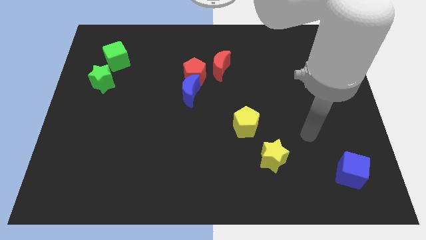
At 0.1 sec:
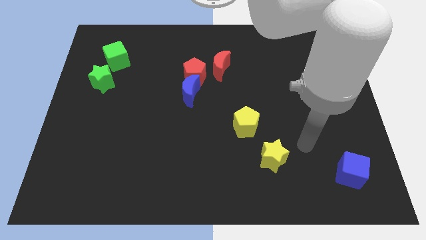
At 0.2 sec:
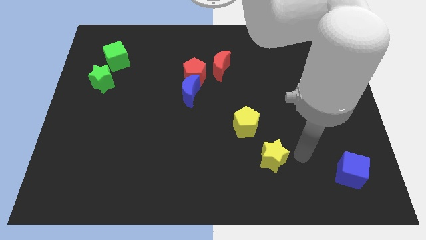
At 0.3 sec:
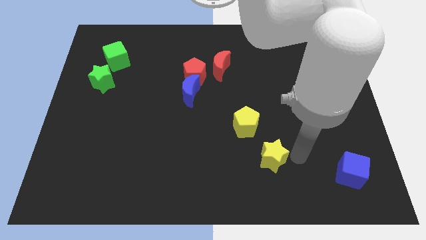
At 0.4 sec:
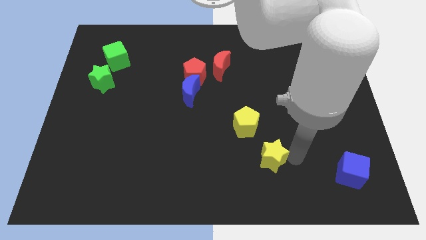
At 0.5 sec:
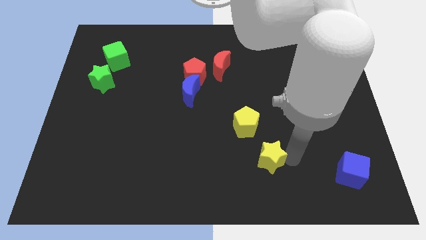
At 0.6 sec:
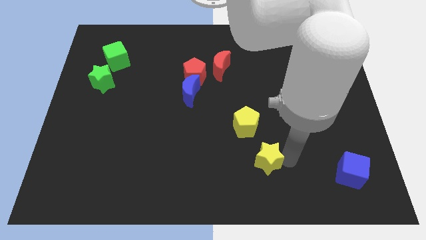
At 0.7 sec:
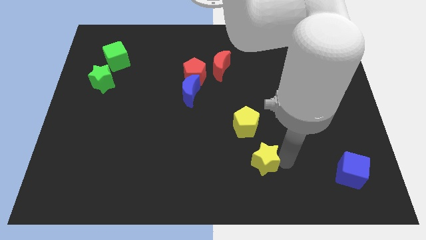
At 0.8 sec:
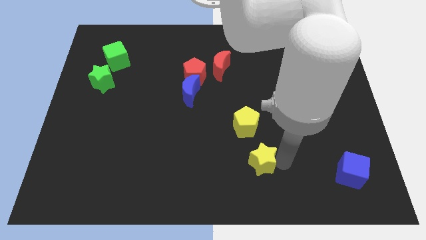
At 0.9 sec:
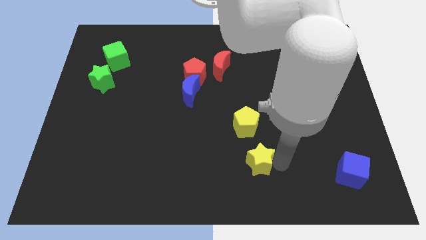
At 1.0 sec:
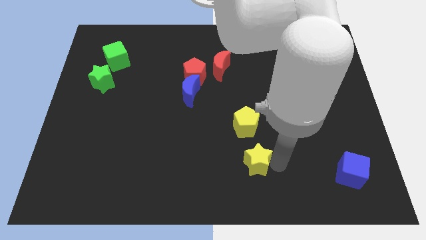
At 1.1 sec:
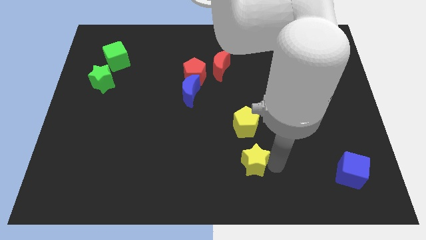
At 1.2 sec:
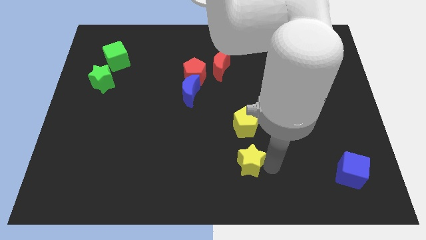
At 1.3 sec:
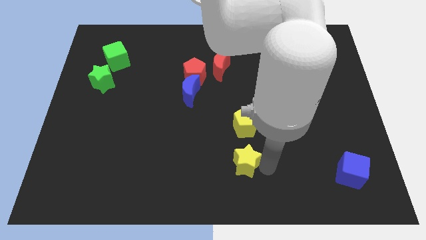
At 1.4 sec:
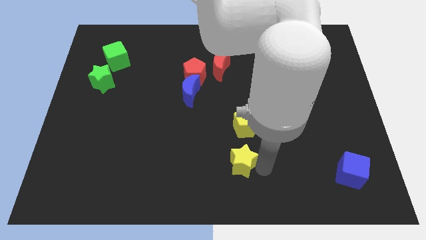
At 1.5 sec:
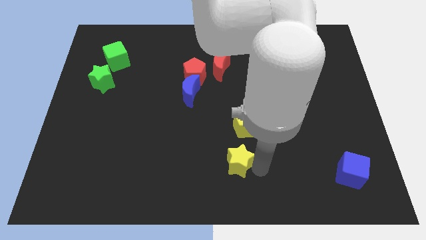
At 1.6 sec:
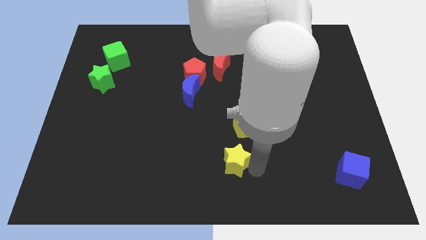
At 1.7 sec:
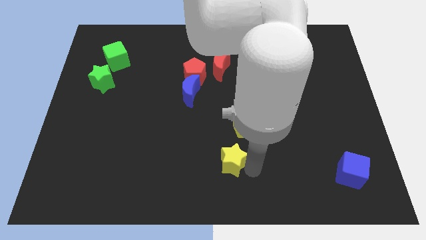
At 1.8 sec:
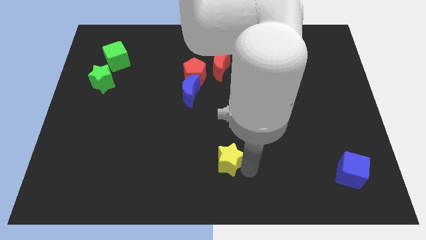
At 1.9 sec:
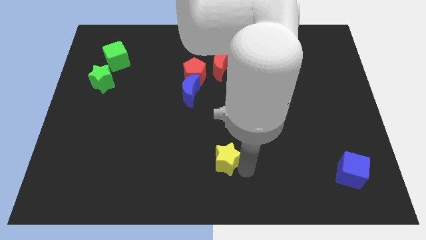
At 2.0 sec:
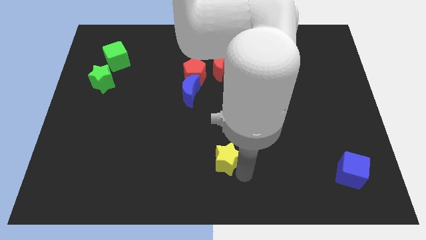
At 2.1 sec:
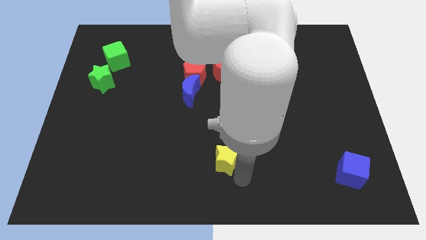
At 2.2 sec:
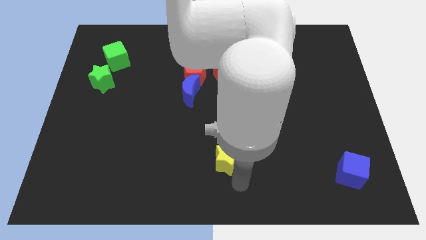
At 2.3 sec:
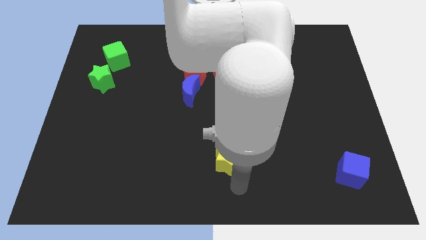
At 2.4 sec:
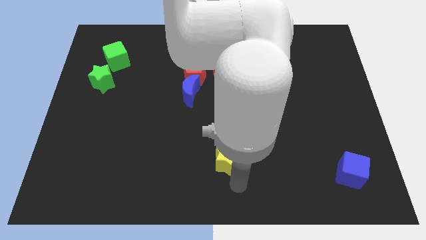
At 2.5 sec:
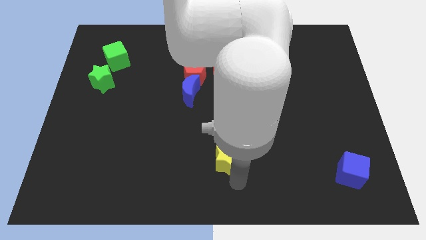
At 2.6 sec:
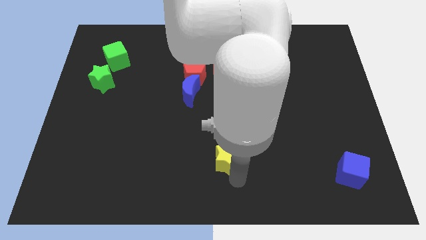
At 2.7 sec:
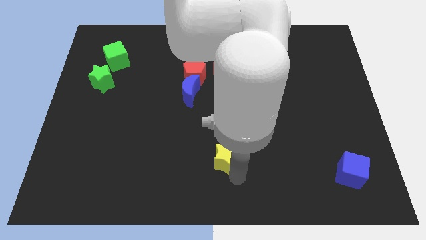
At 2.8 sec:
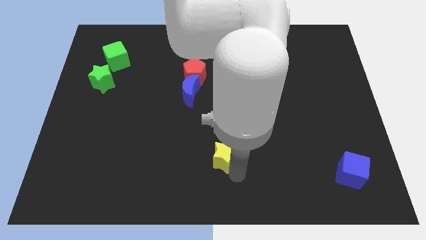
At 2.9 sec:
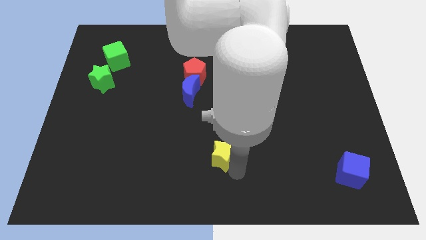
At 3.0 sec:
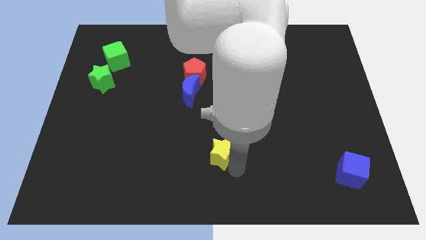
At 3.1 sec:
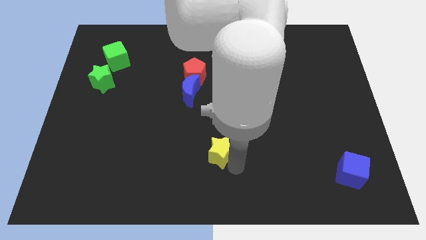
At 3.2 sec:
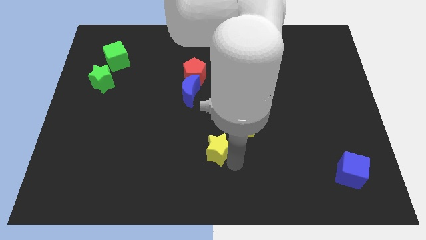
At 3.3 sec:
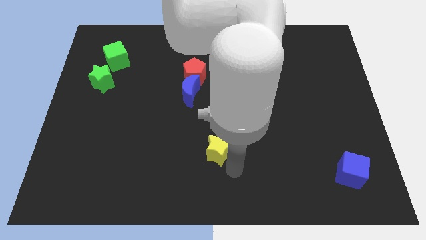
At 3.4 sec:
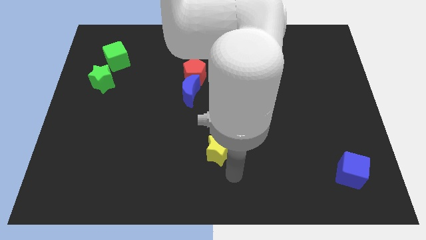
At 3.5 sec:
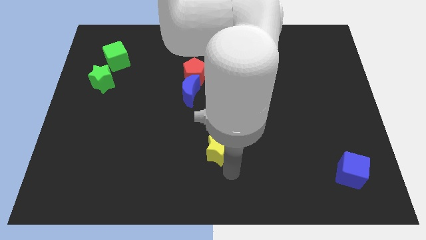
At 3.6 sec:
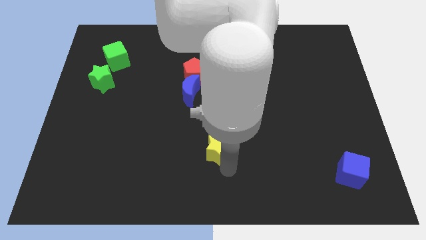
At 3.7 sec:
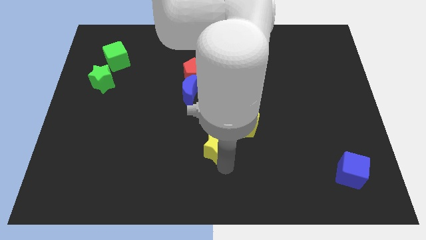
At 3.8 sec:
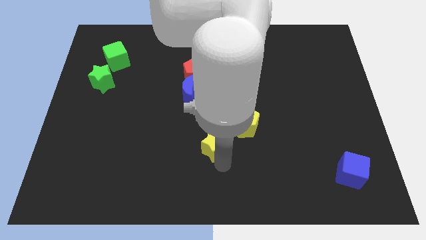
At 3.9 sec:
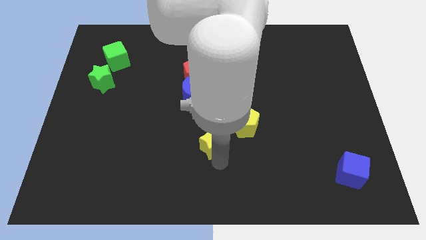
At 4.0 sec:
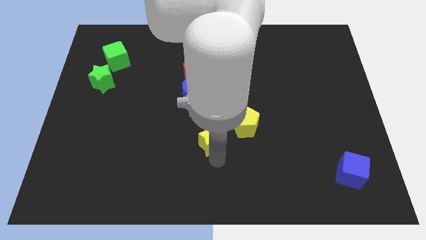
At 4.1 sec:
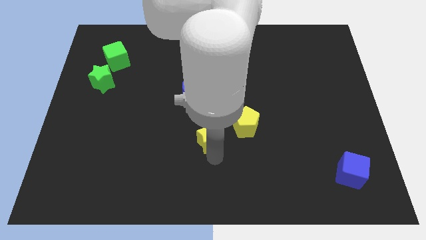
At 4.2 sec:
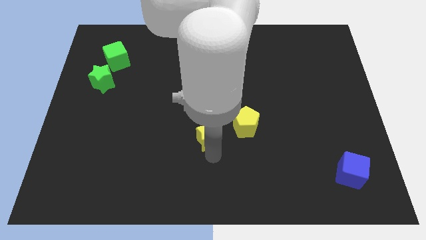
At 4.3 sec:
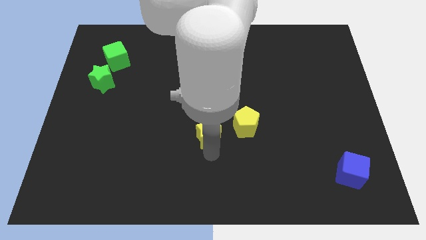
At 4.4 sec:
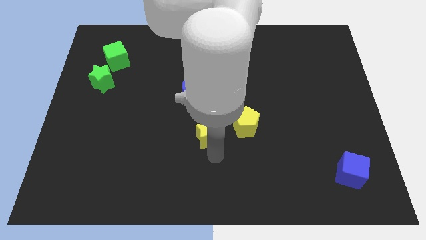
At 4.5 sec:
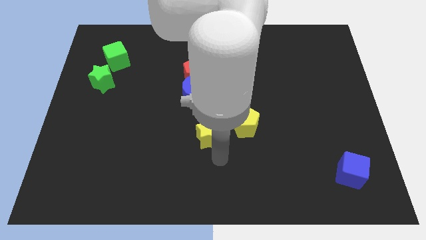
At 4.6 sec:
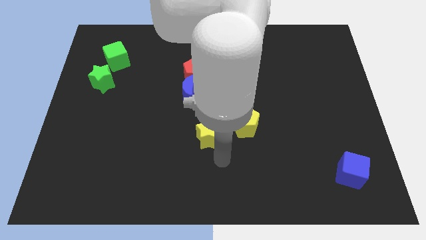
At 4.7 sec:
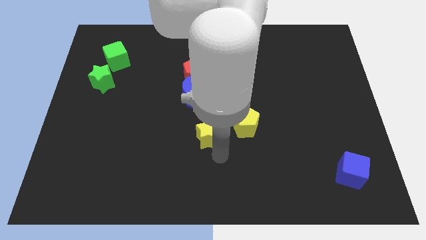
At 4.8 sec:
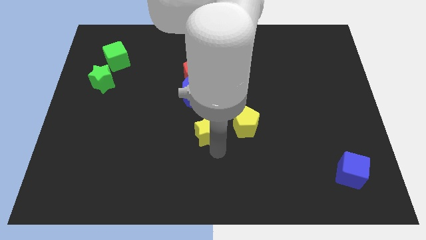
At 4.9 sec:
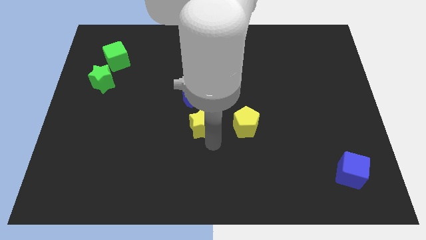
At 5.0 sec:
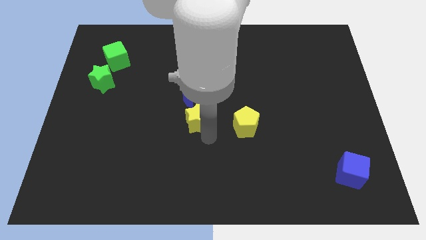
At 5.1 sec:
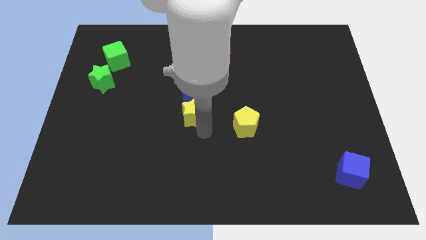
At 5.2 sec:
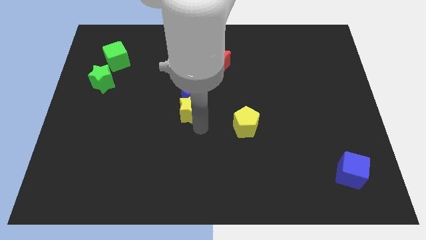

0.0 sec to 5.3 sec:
slide the yellow star next to the blue moon

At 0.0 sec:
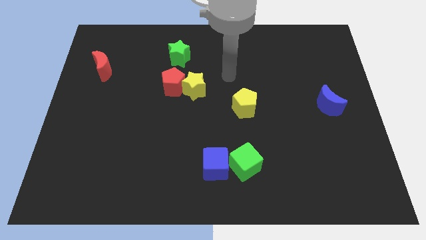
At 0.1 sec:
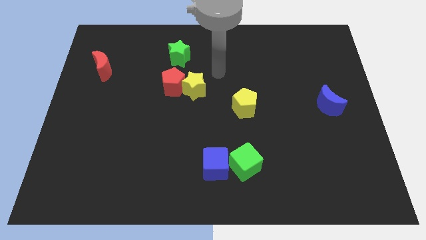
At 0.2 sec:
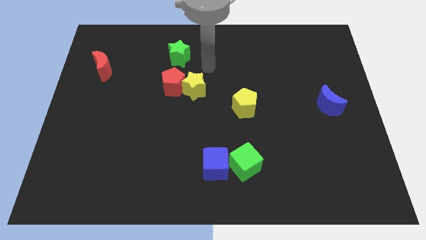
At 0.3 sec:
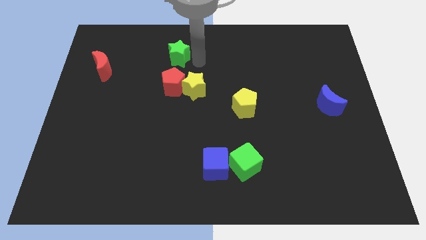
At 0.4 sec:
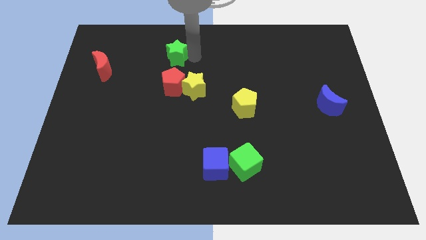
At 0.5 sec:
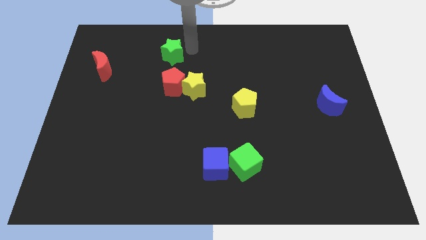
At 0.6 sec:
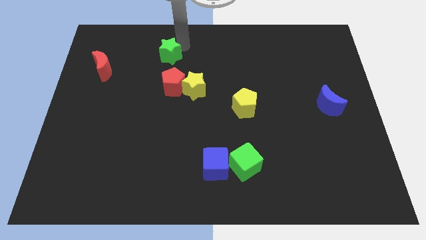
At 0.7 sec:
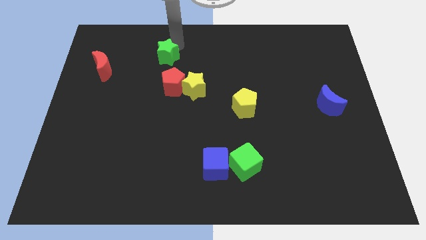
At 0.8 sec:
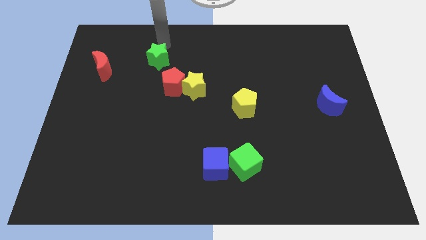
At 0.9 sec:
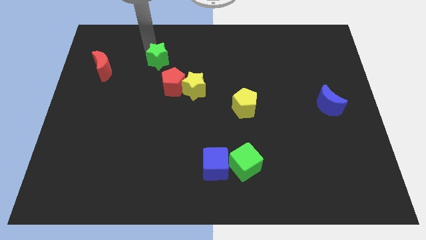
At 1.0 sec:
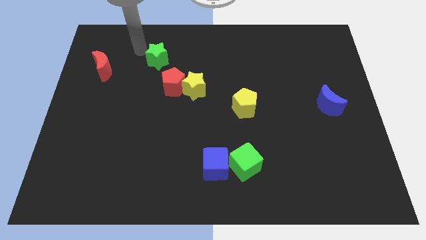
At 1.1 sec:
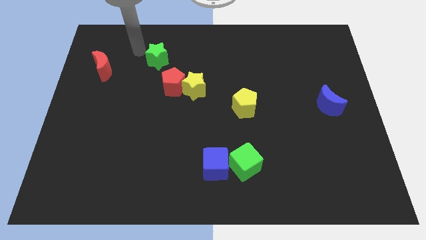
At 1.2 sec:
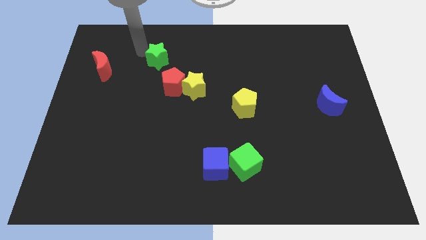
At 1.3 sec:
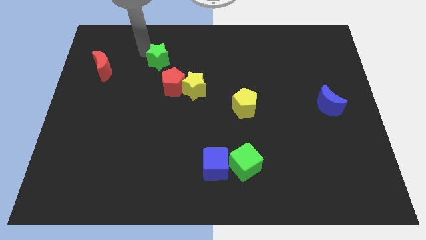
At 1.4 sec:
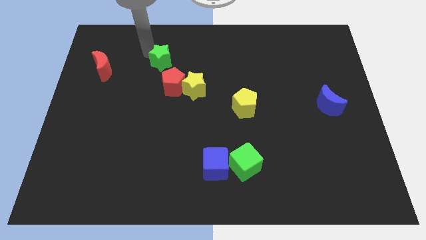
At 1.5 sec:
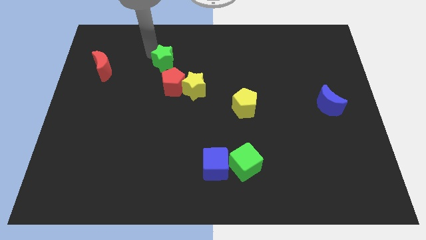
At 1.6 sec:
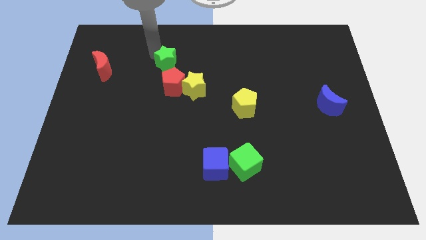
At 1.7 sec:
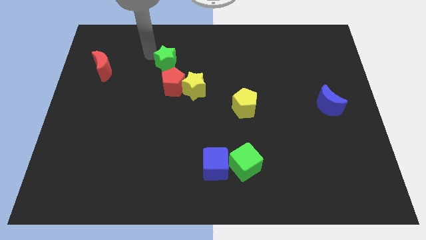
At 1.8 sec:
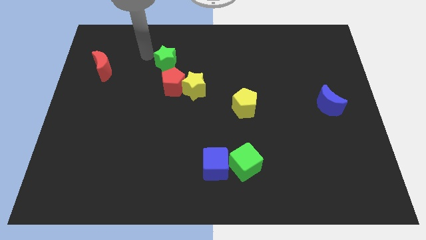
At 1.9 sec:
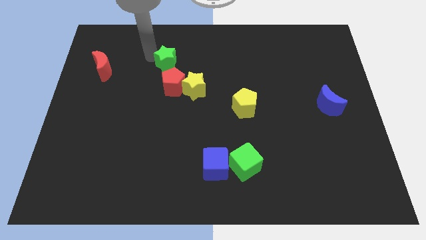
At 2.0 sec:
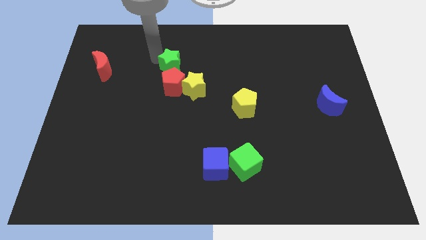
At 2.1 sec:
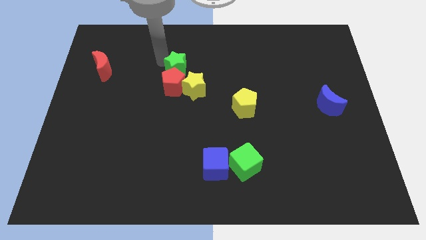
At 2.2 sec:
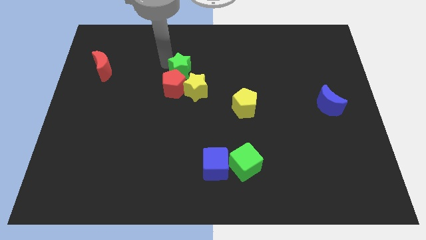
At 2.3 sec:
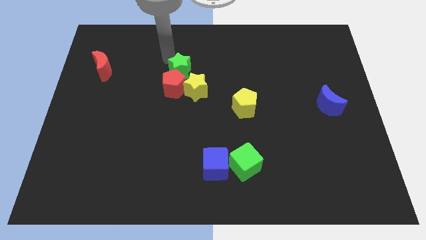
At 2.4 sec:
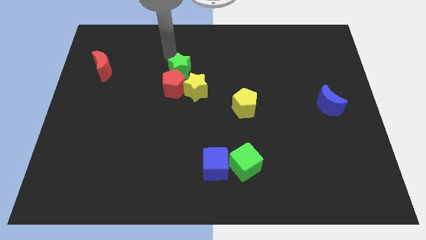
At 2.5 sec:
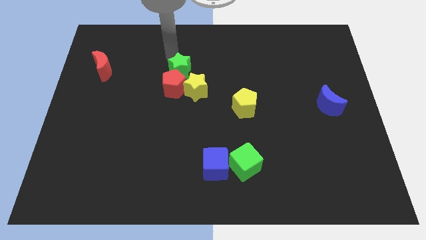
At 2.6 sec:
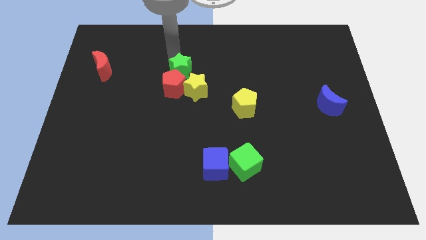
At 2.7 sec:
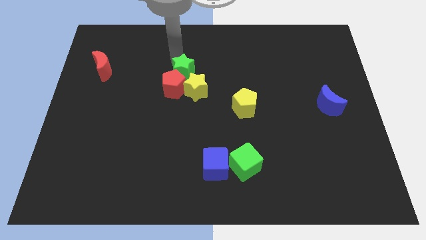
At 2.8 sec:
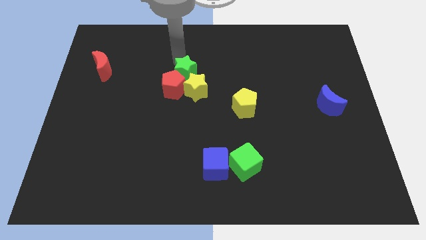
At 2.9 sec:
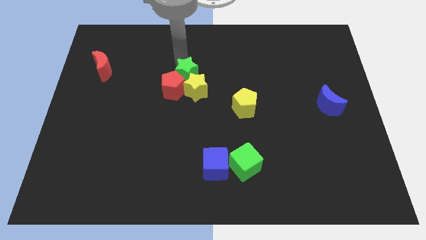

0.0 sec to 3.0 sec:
slide the green star next to the yellow star
